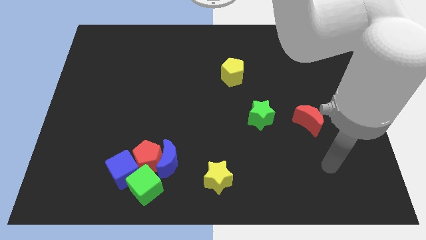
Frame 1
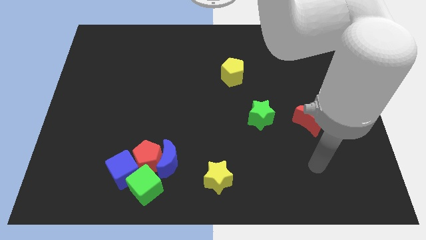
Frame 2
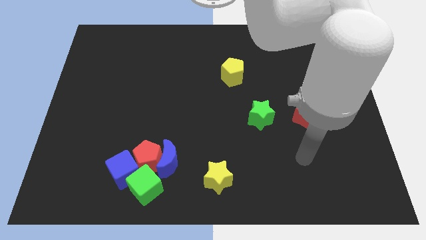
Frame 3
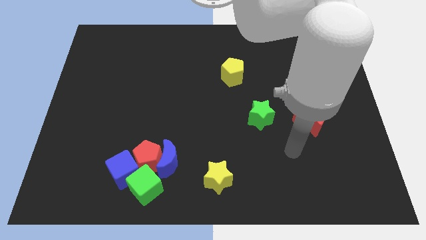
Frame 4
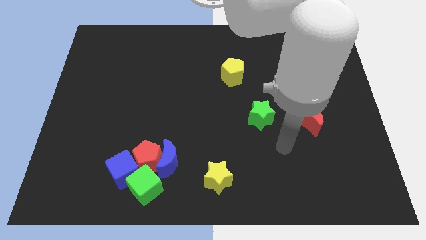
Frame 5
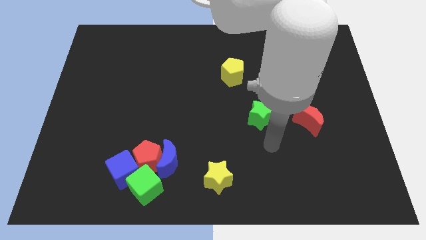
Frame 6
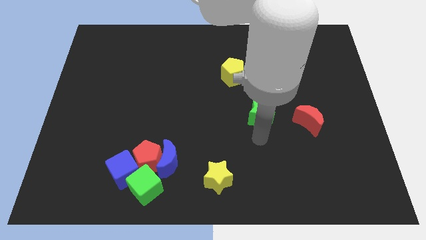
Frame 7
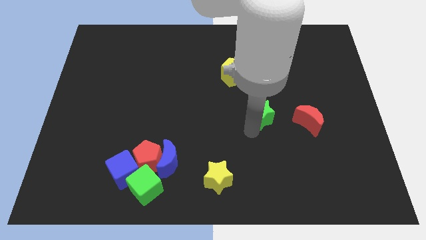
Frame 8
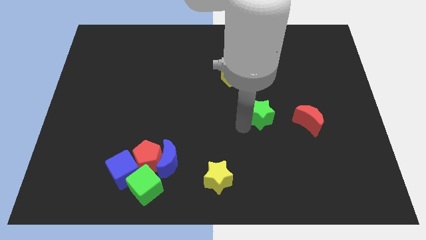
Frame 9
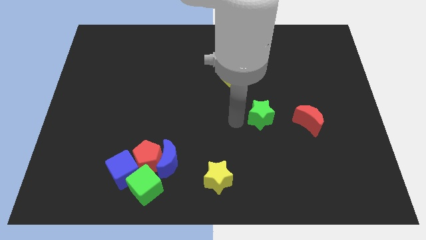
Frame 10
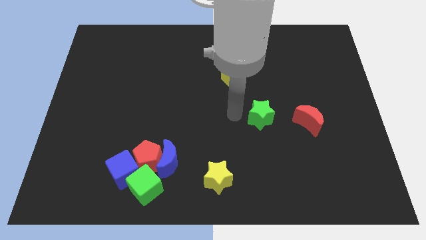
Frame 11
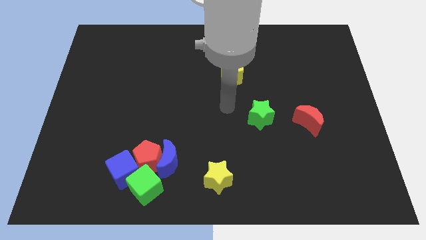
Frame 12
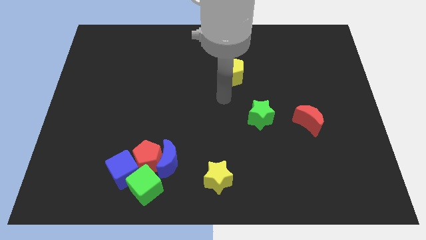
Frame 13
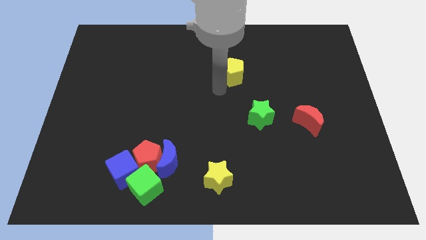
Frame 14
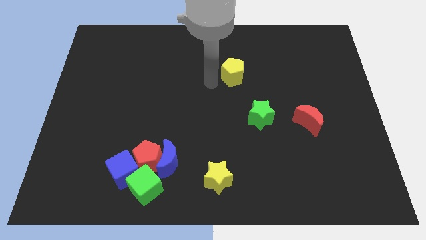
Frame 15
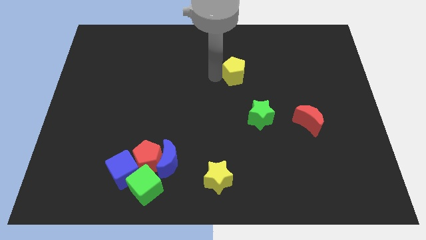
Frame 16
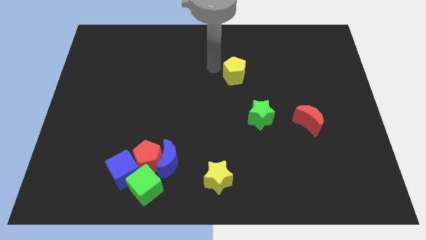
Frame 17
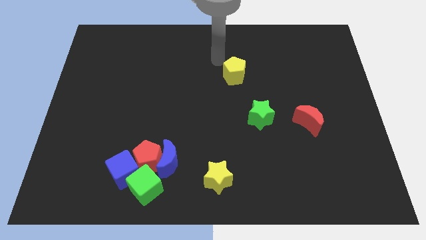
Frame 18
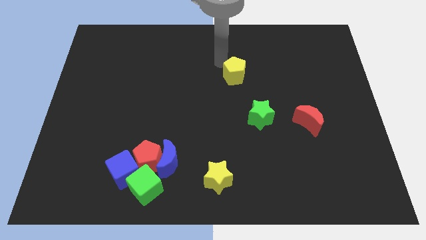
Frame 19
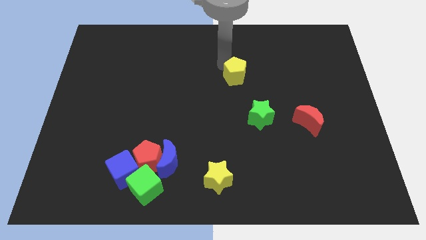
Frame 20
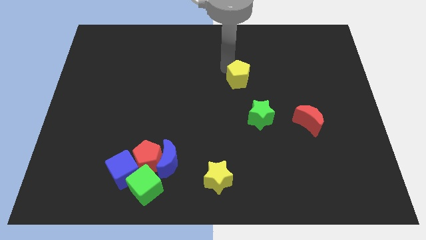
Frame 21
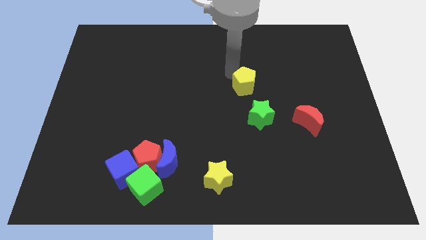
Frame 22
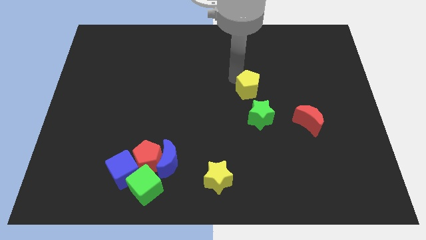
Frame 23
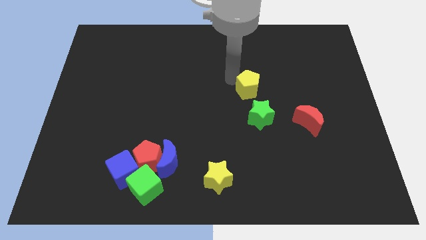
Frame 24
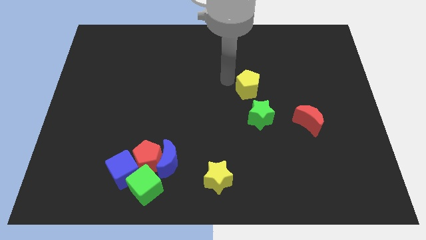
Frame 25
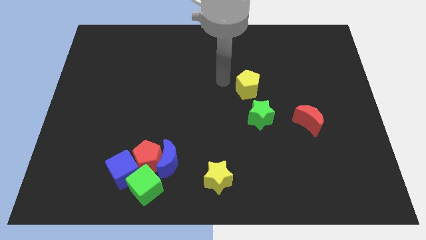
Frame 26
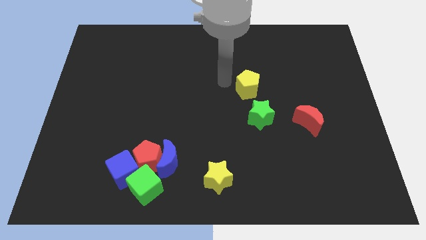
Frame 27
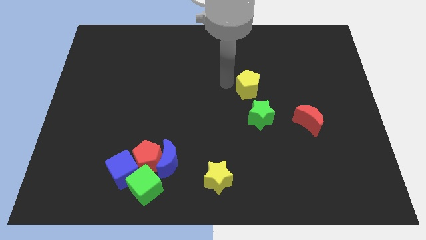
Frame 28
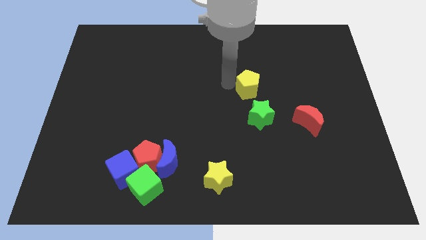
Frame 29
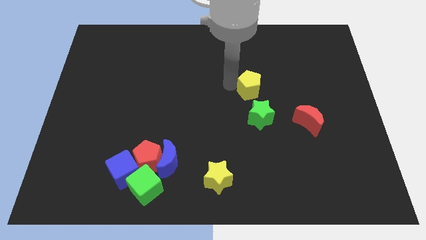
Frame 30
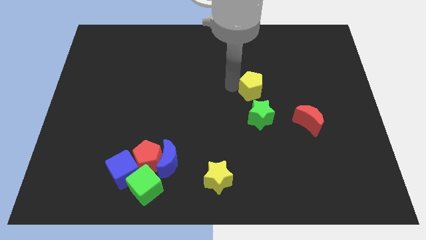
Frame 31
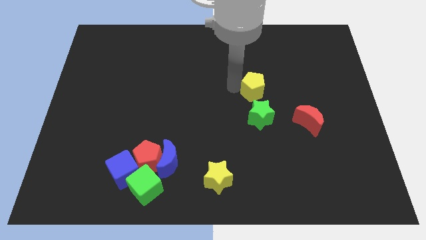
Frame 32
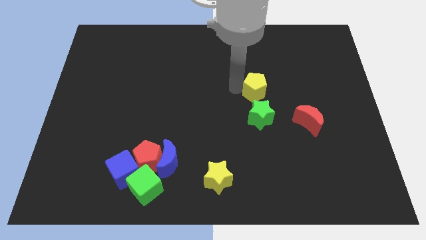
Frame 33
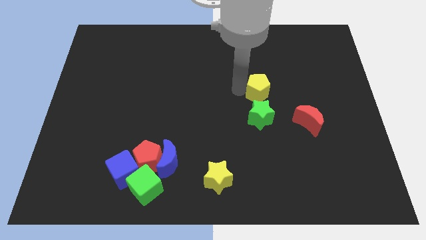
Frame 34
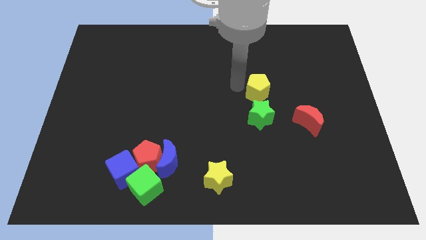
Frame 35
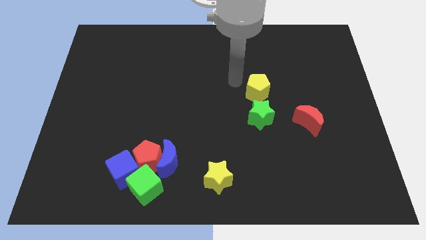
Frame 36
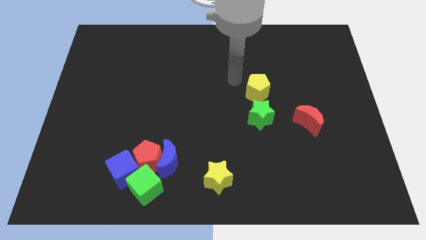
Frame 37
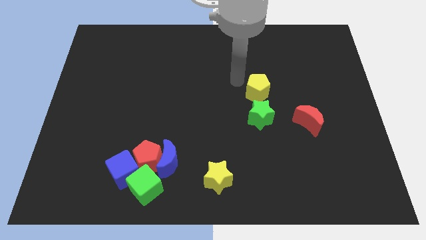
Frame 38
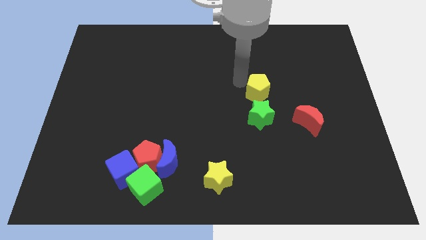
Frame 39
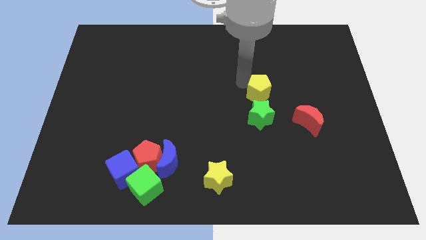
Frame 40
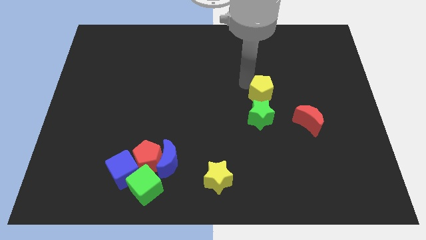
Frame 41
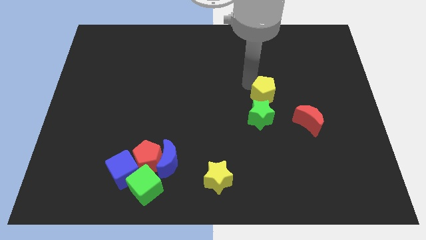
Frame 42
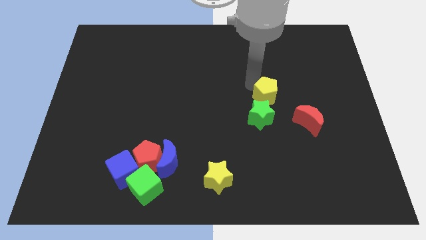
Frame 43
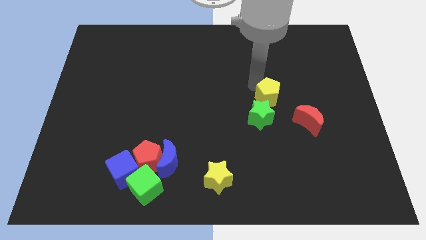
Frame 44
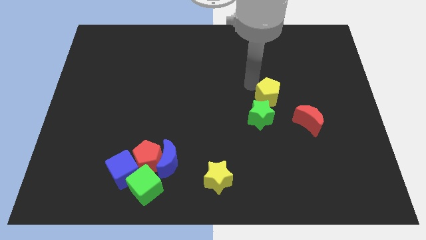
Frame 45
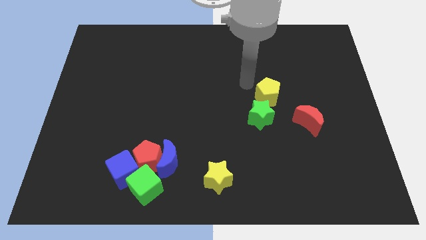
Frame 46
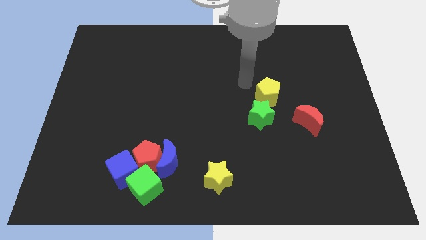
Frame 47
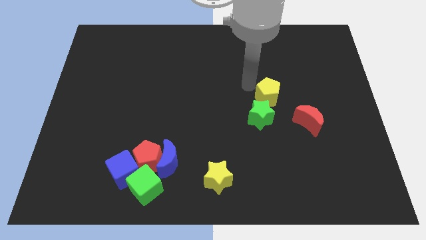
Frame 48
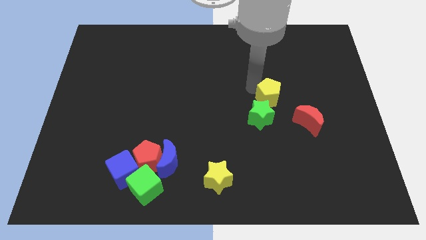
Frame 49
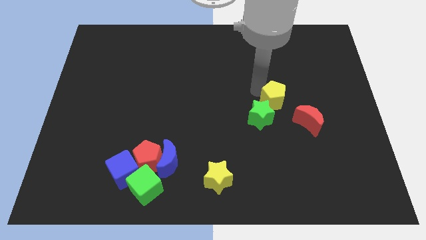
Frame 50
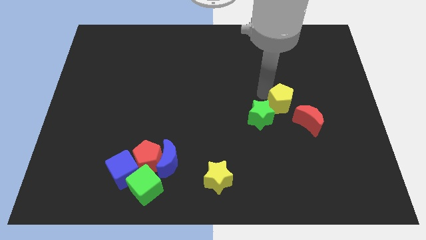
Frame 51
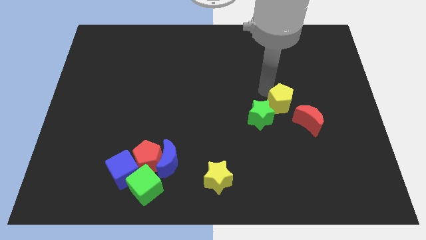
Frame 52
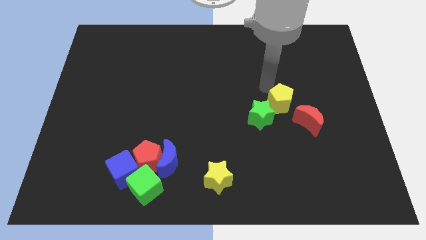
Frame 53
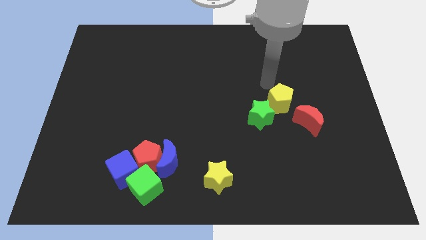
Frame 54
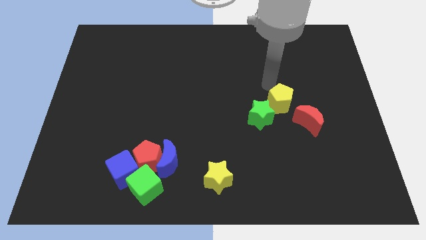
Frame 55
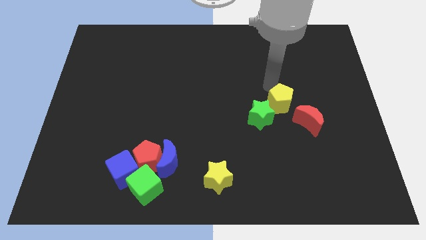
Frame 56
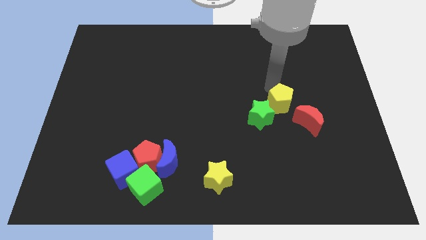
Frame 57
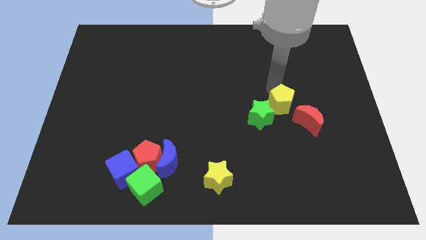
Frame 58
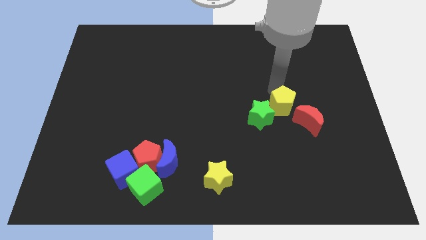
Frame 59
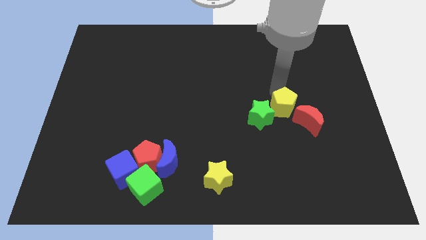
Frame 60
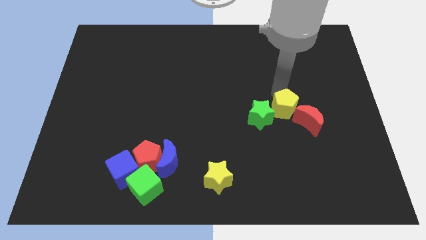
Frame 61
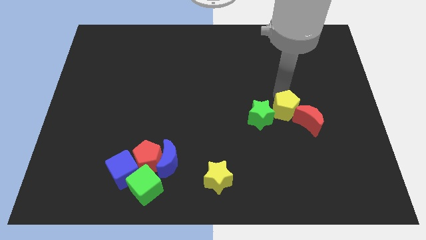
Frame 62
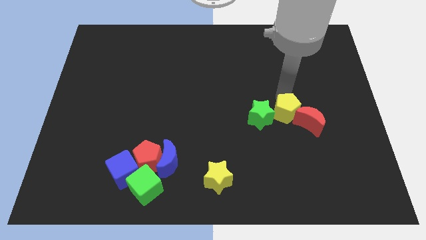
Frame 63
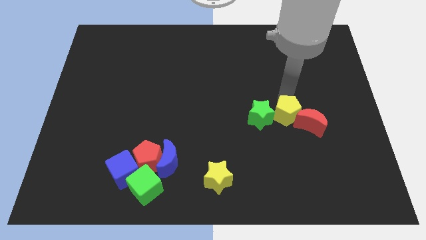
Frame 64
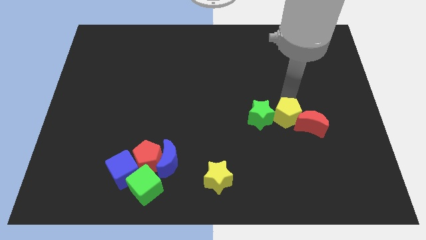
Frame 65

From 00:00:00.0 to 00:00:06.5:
slide the yellow pentagon to the bottom right of the green star

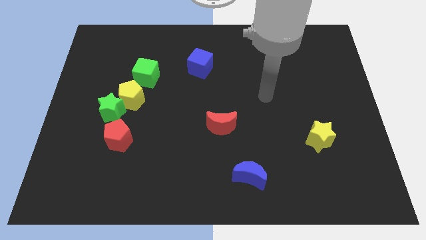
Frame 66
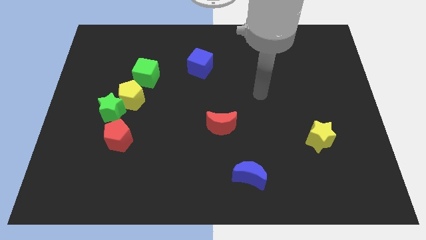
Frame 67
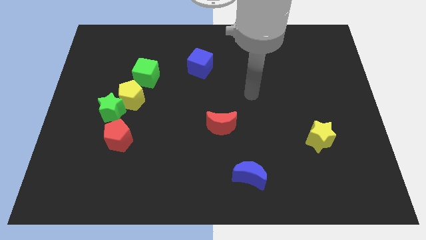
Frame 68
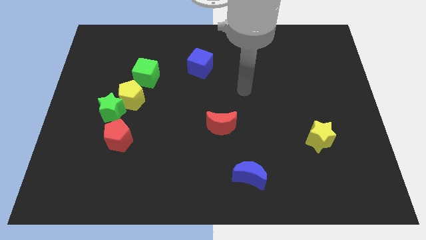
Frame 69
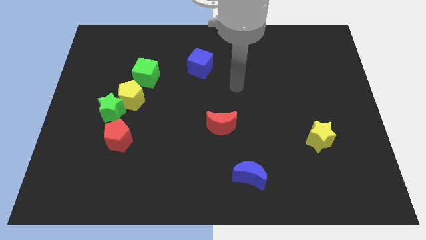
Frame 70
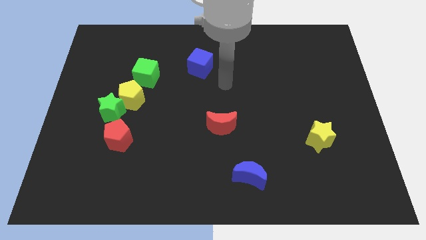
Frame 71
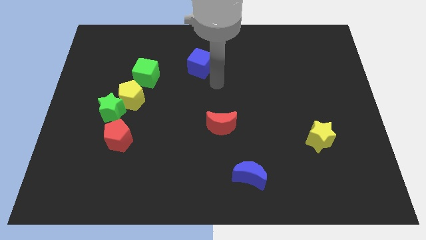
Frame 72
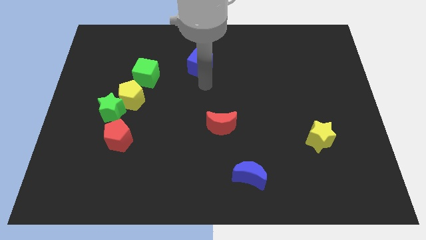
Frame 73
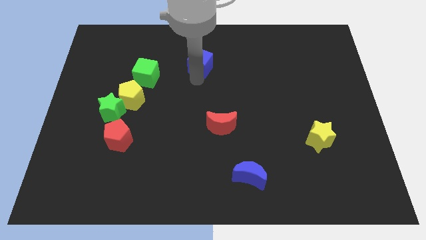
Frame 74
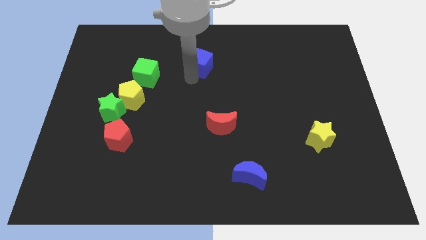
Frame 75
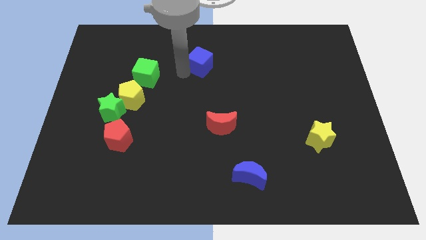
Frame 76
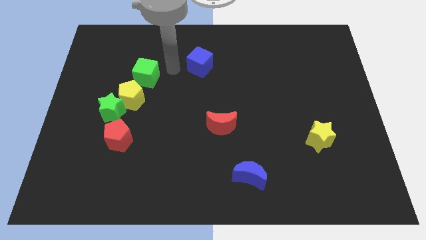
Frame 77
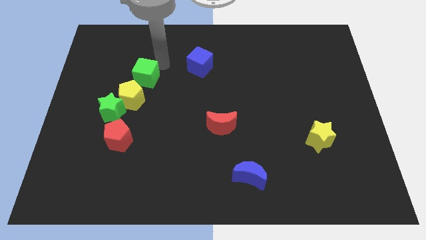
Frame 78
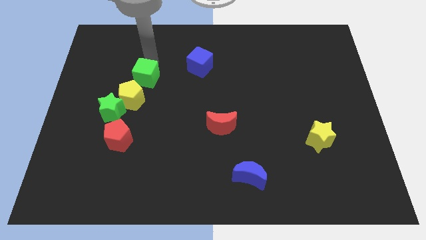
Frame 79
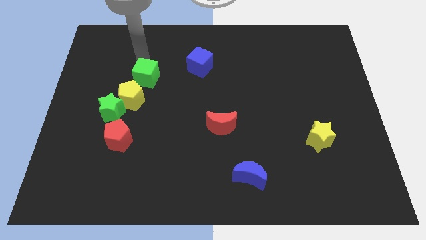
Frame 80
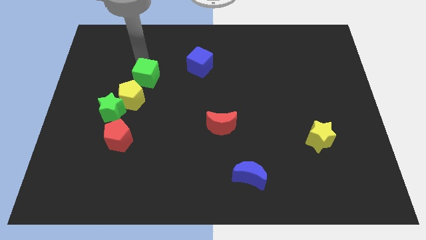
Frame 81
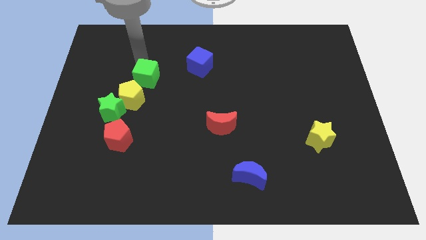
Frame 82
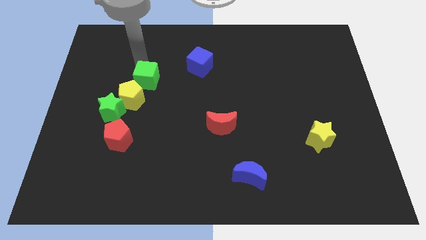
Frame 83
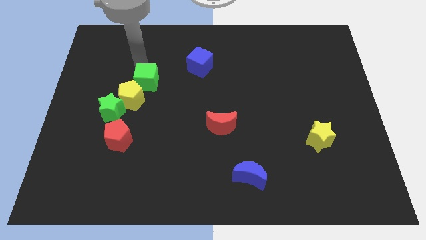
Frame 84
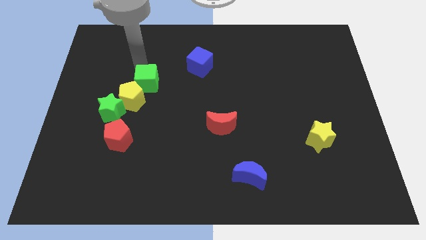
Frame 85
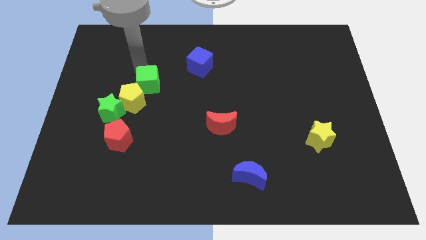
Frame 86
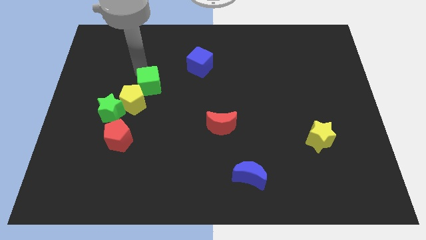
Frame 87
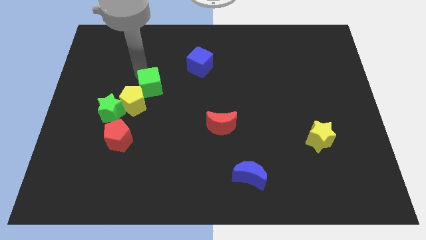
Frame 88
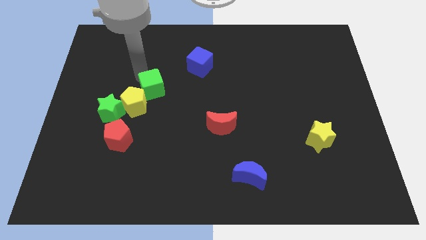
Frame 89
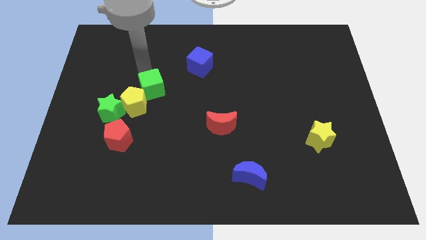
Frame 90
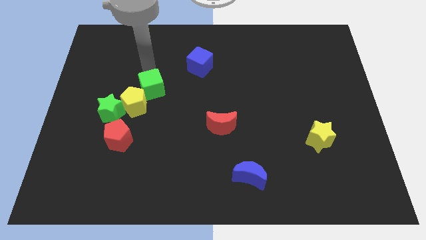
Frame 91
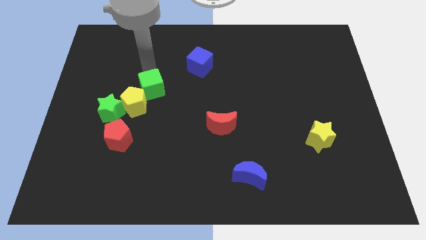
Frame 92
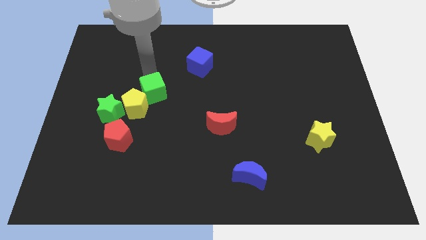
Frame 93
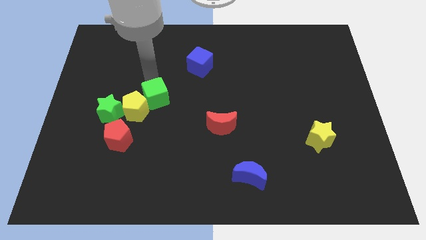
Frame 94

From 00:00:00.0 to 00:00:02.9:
put the green cube right of the green star
